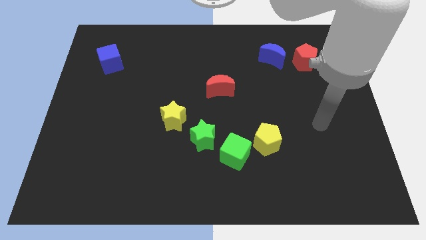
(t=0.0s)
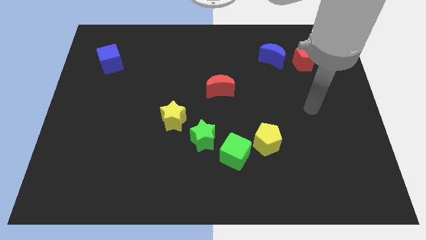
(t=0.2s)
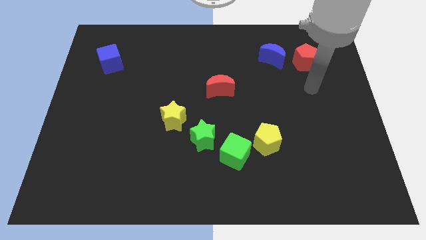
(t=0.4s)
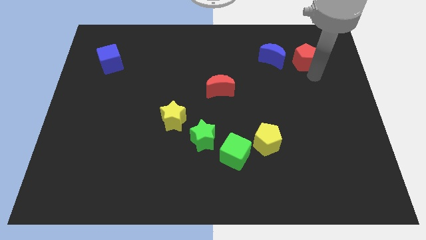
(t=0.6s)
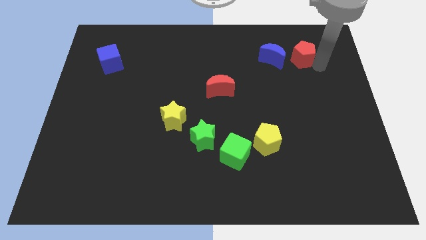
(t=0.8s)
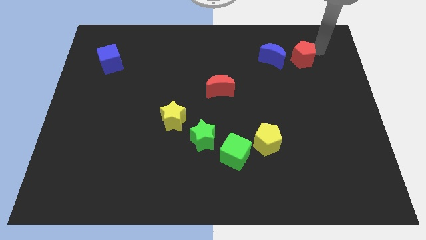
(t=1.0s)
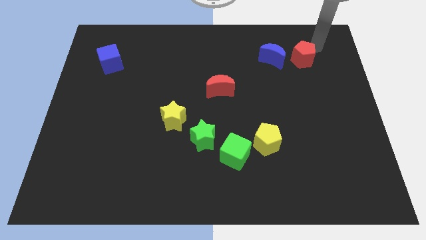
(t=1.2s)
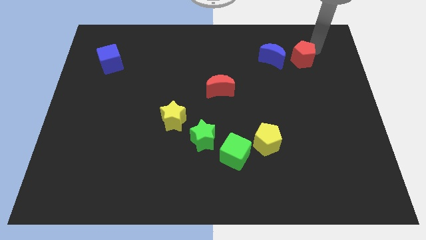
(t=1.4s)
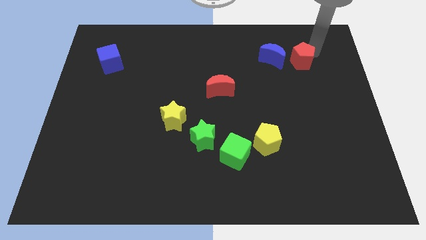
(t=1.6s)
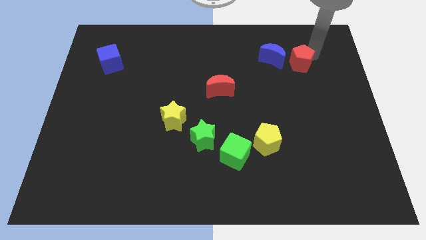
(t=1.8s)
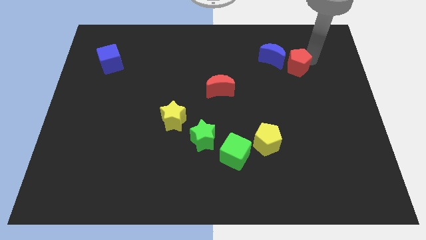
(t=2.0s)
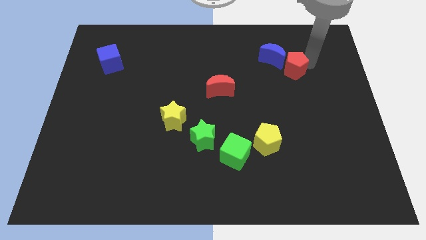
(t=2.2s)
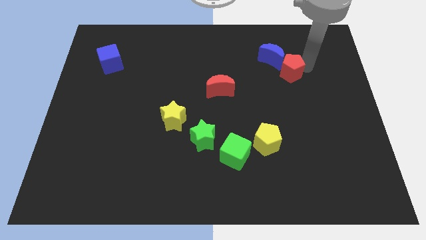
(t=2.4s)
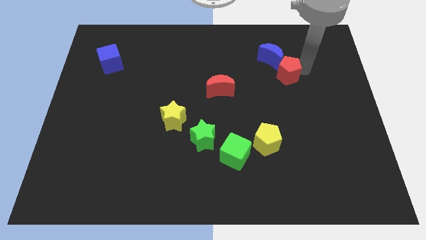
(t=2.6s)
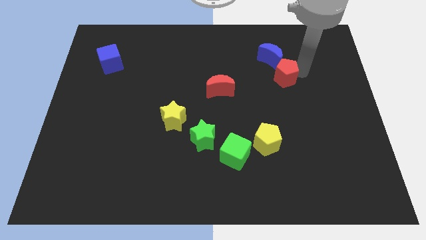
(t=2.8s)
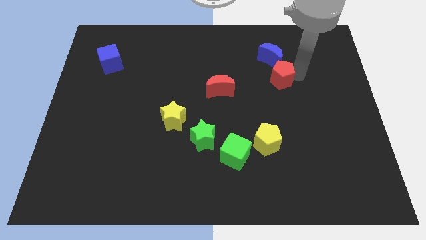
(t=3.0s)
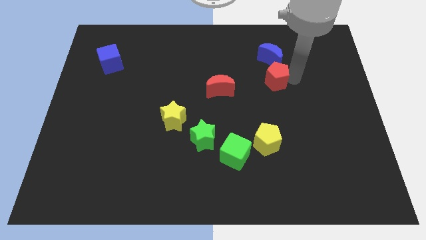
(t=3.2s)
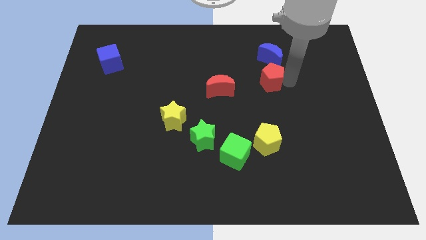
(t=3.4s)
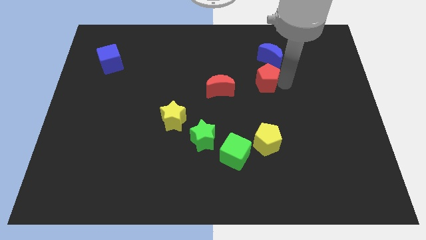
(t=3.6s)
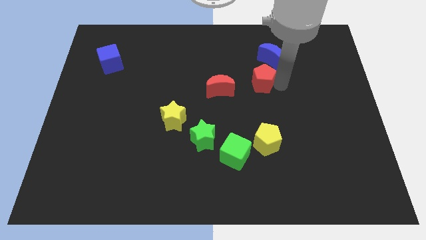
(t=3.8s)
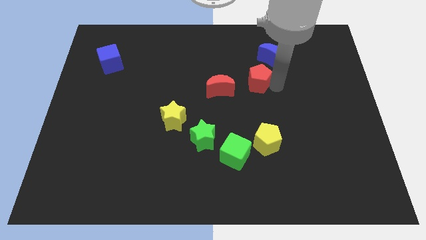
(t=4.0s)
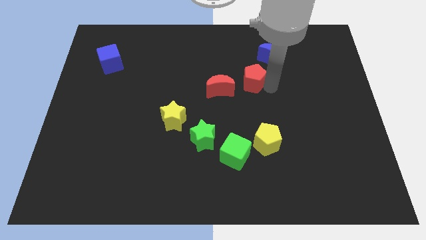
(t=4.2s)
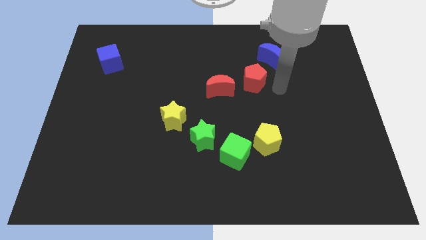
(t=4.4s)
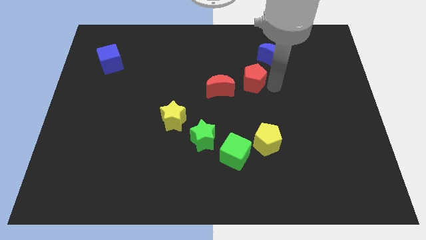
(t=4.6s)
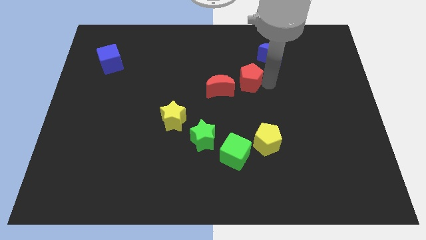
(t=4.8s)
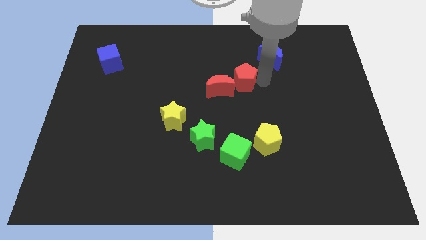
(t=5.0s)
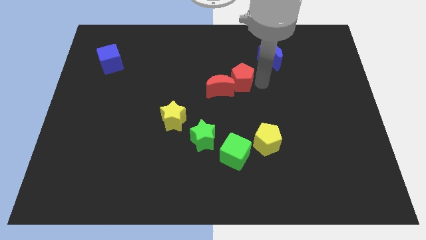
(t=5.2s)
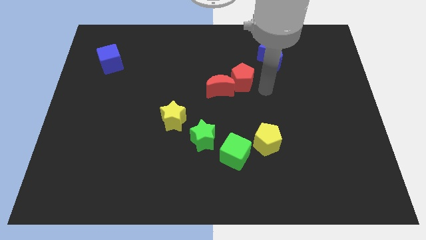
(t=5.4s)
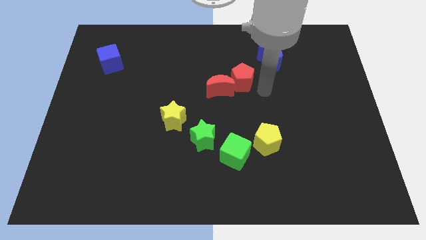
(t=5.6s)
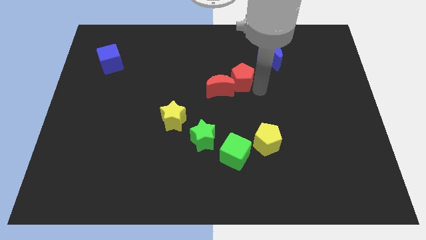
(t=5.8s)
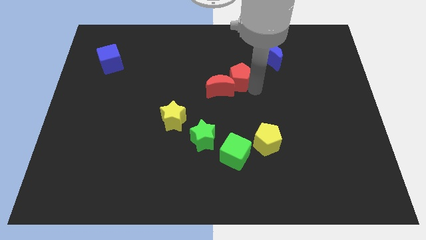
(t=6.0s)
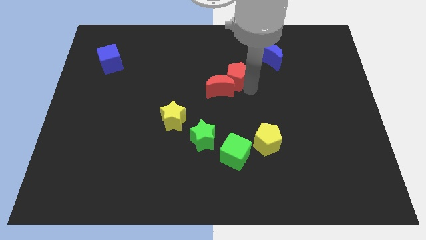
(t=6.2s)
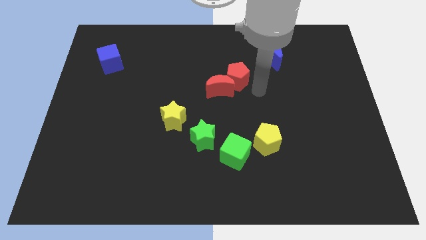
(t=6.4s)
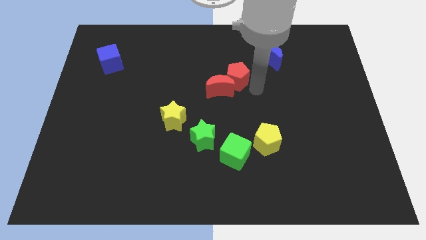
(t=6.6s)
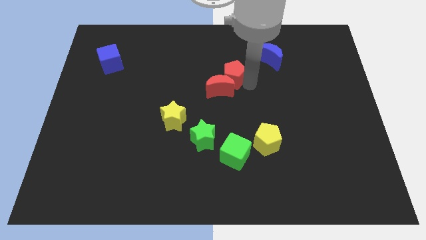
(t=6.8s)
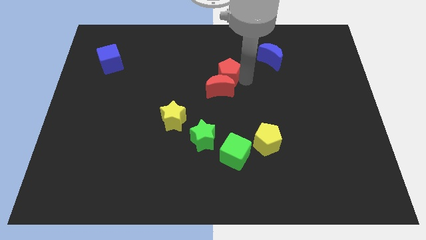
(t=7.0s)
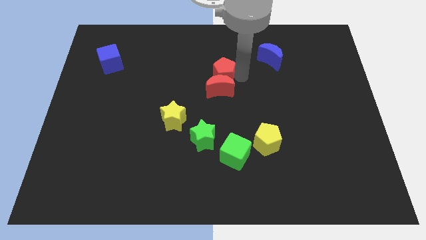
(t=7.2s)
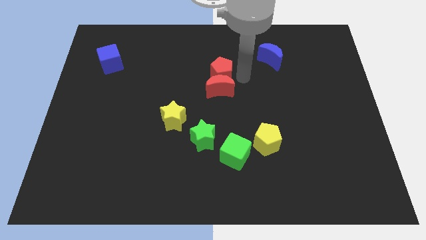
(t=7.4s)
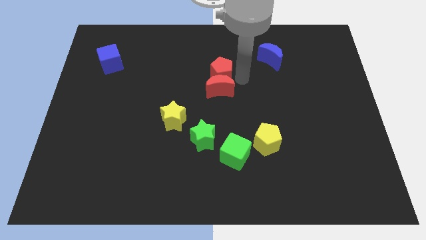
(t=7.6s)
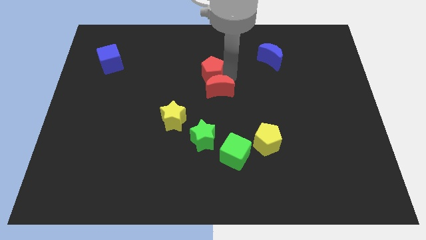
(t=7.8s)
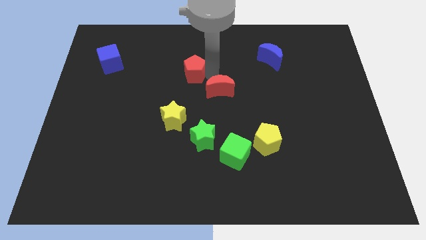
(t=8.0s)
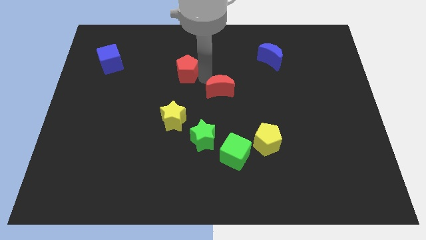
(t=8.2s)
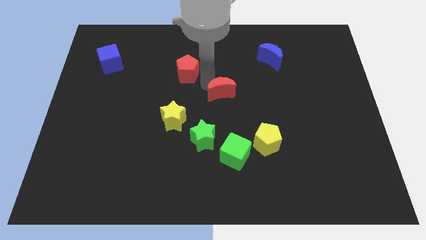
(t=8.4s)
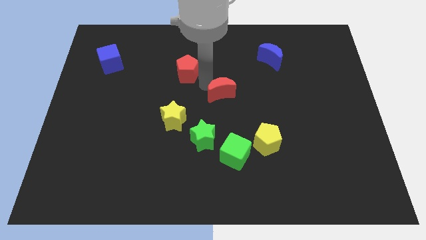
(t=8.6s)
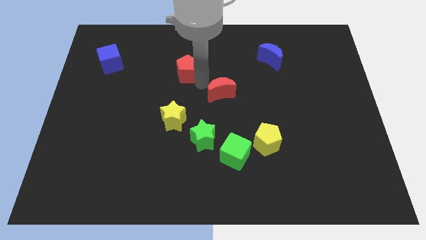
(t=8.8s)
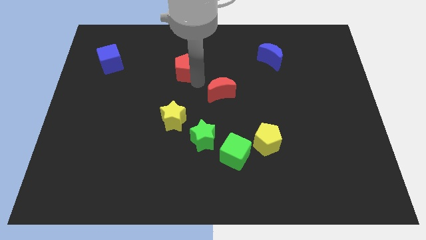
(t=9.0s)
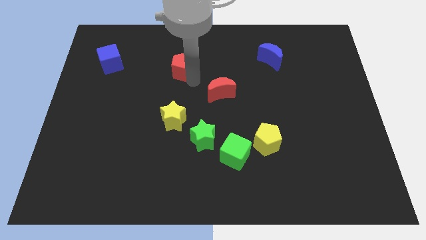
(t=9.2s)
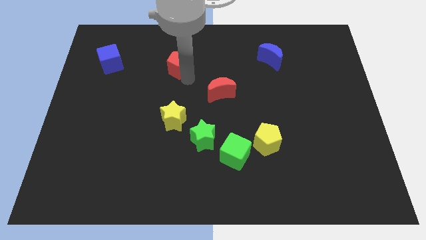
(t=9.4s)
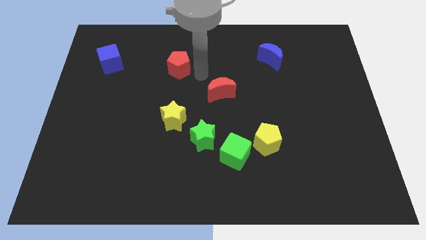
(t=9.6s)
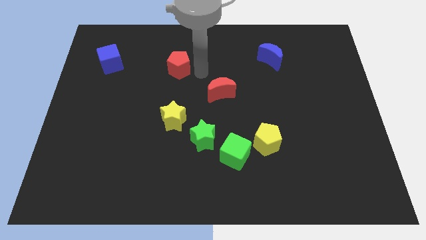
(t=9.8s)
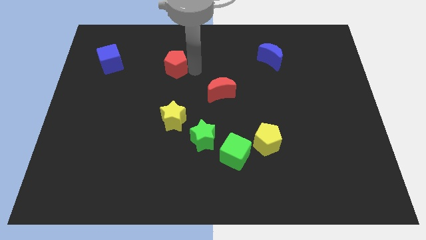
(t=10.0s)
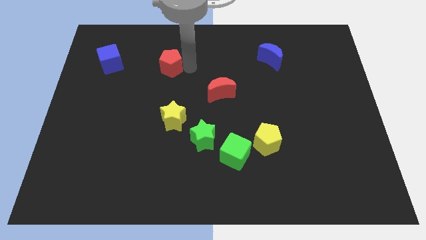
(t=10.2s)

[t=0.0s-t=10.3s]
slide the red pentagon to the right of the blue cube

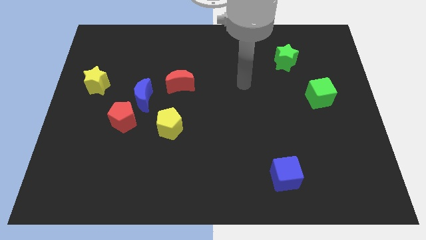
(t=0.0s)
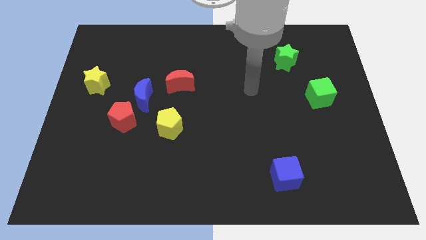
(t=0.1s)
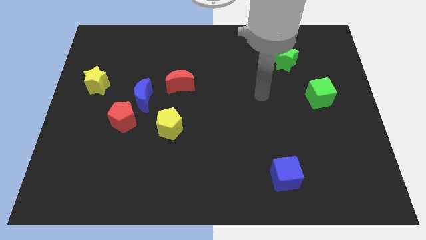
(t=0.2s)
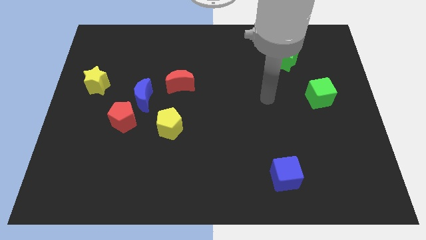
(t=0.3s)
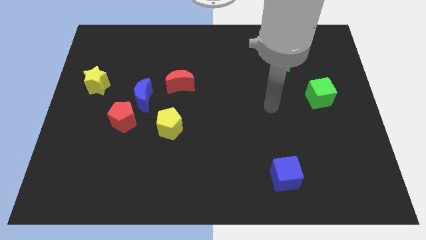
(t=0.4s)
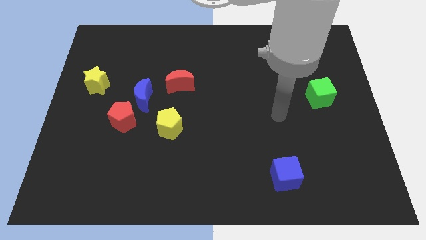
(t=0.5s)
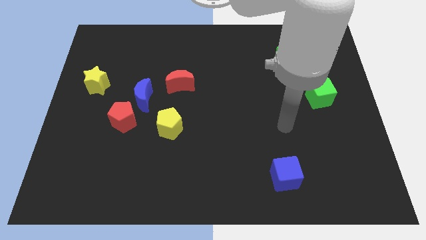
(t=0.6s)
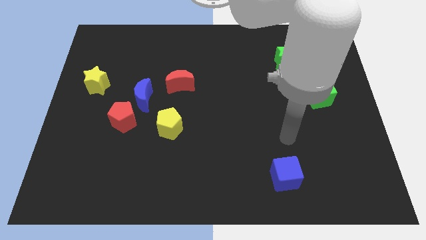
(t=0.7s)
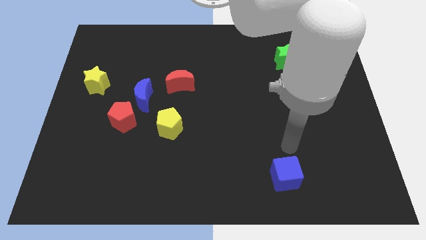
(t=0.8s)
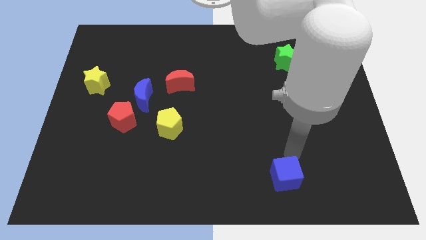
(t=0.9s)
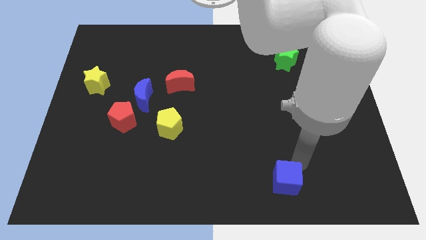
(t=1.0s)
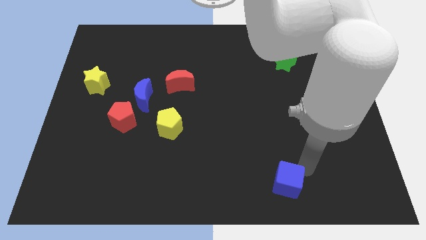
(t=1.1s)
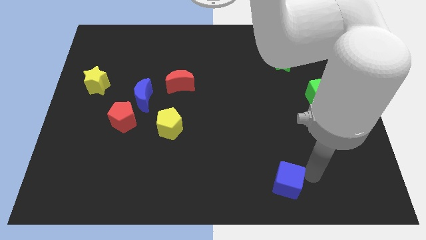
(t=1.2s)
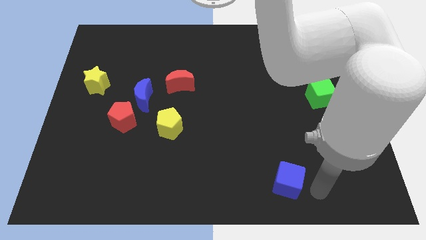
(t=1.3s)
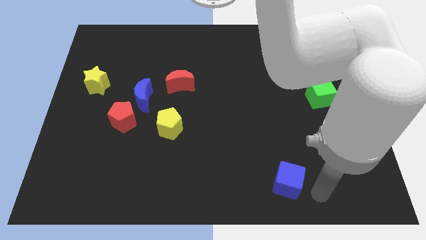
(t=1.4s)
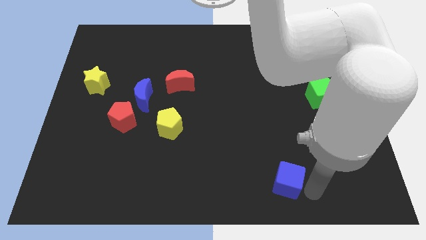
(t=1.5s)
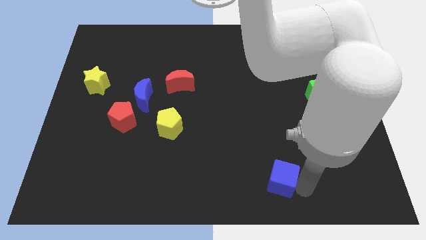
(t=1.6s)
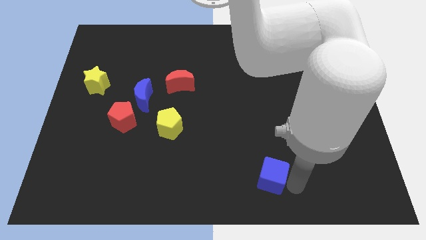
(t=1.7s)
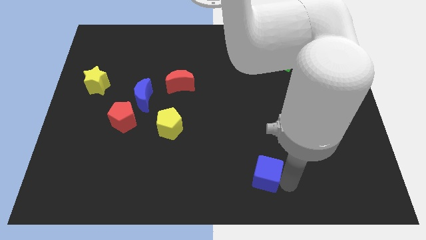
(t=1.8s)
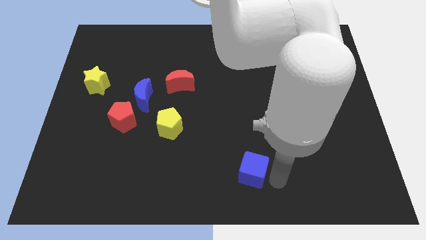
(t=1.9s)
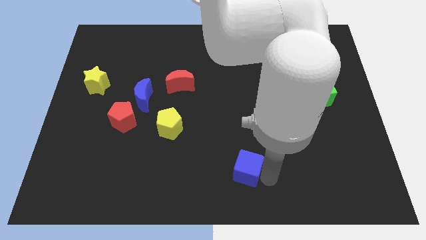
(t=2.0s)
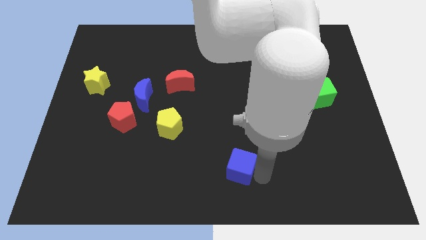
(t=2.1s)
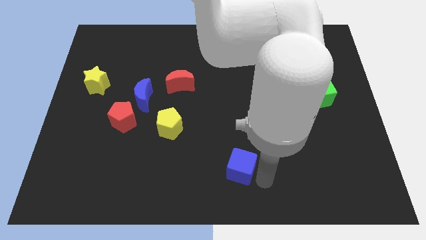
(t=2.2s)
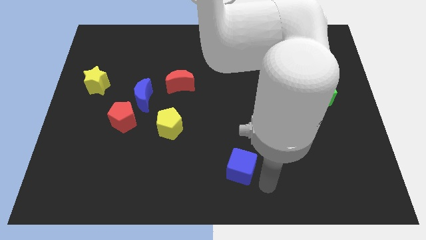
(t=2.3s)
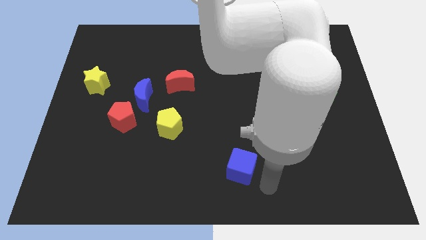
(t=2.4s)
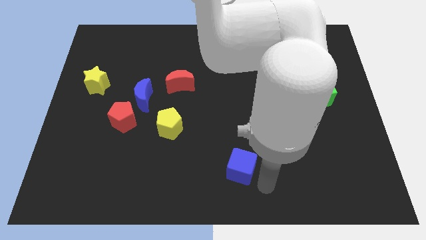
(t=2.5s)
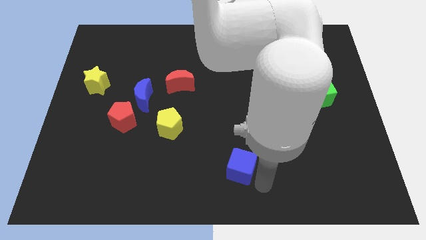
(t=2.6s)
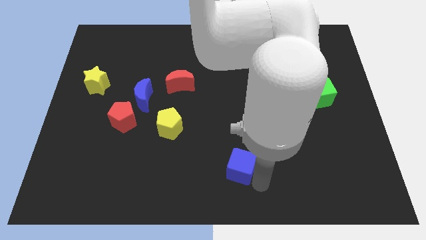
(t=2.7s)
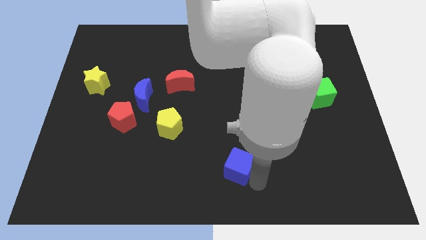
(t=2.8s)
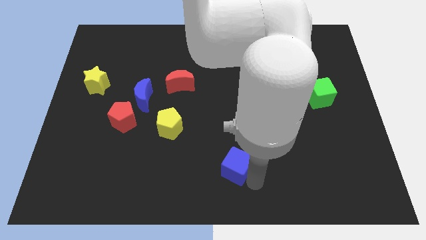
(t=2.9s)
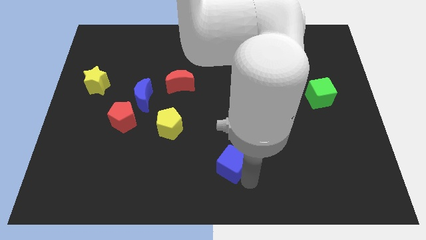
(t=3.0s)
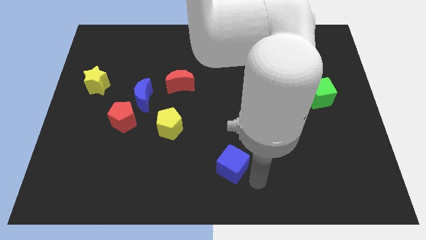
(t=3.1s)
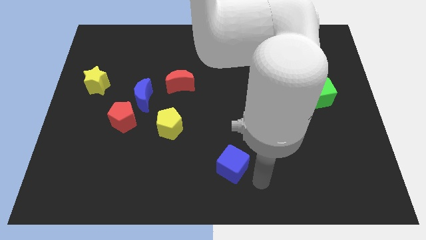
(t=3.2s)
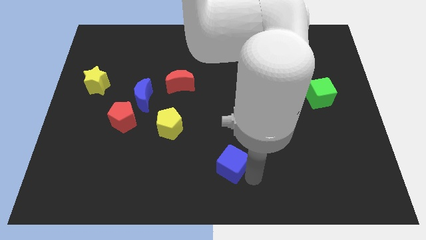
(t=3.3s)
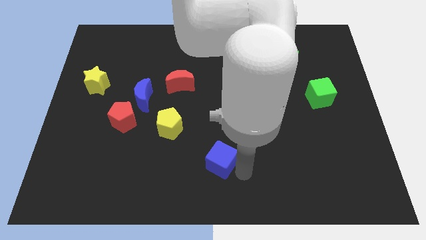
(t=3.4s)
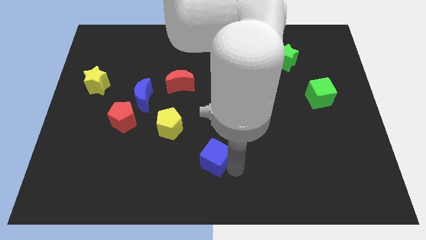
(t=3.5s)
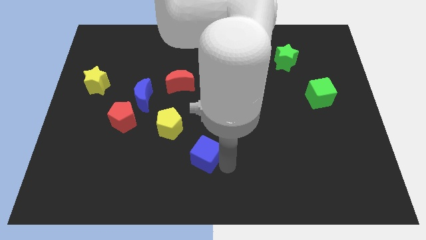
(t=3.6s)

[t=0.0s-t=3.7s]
move the blue cube to the bottom right side of the yellow pentagon
